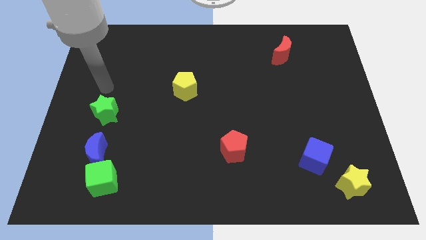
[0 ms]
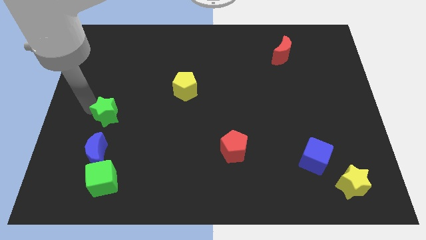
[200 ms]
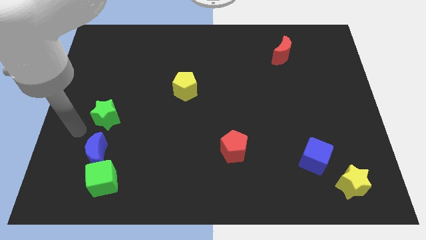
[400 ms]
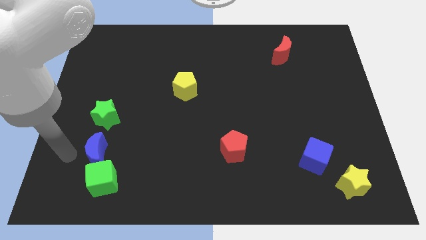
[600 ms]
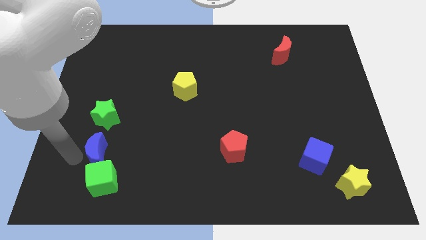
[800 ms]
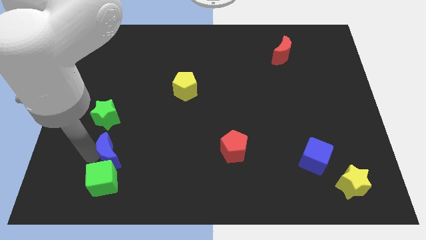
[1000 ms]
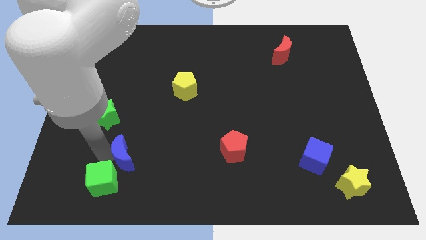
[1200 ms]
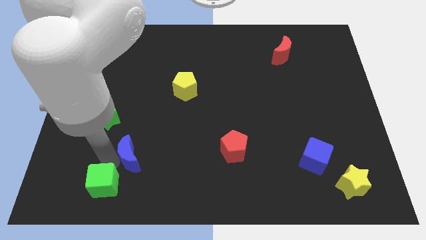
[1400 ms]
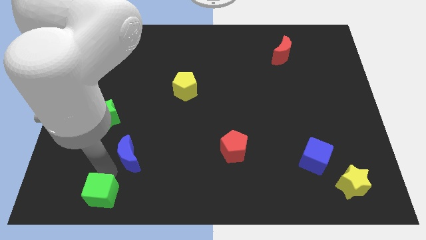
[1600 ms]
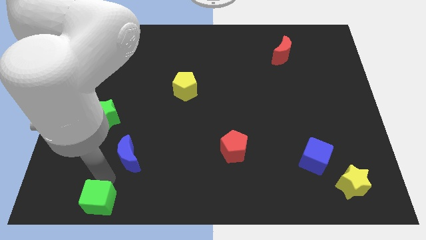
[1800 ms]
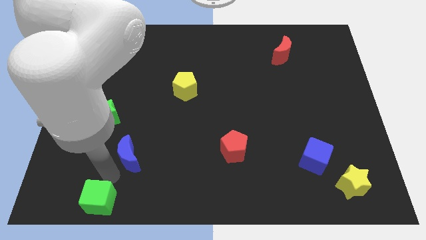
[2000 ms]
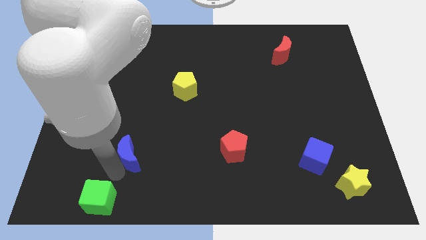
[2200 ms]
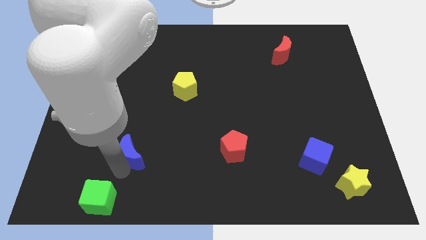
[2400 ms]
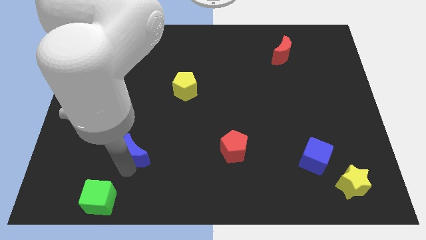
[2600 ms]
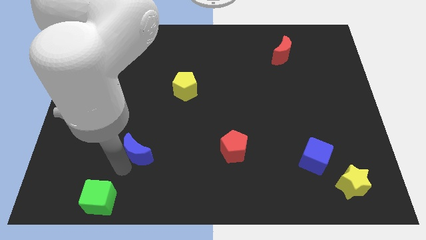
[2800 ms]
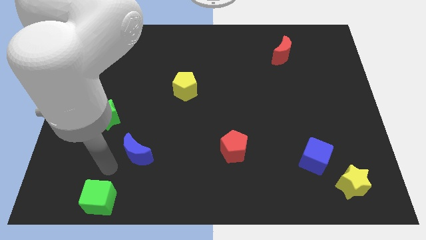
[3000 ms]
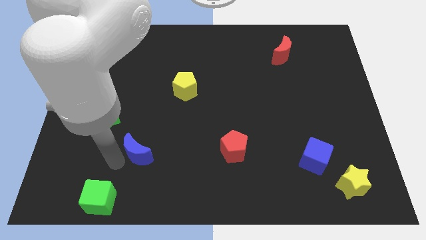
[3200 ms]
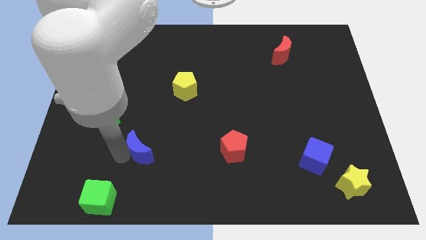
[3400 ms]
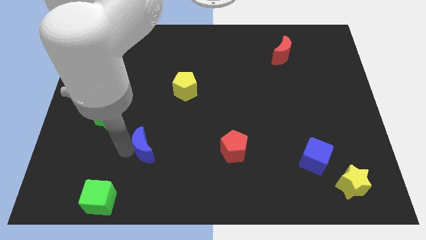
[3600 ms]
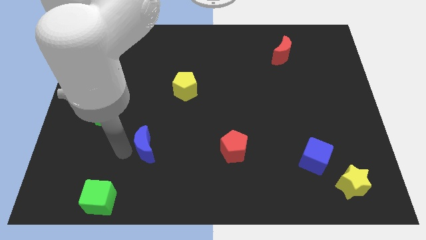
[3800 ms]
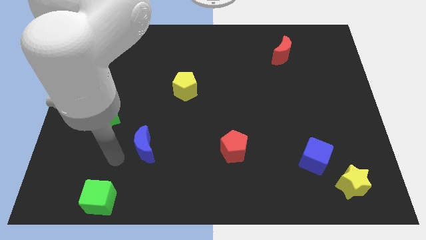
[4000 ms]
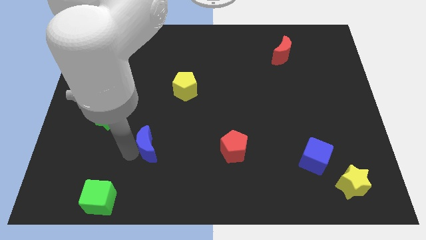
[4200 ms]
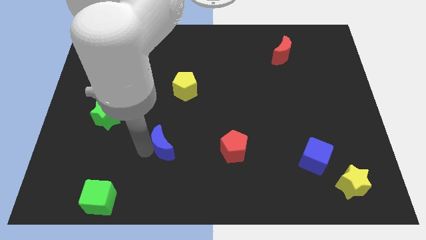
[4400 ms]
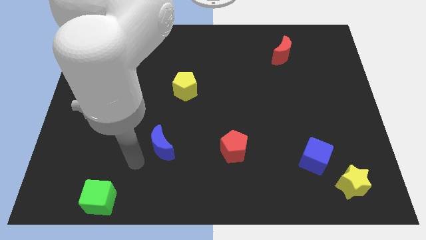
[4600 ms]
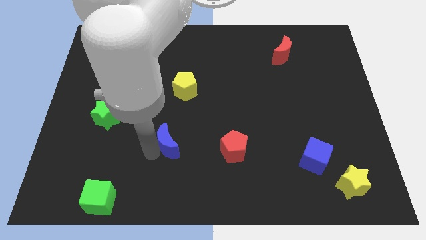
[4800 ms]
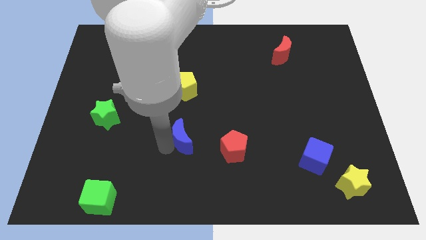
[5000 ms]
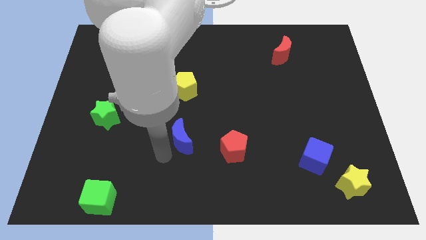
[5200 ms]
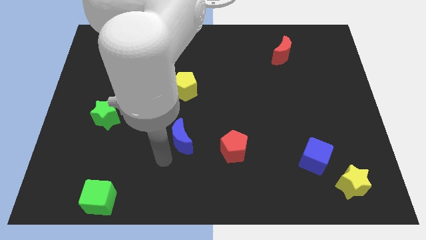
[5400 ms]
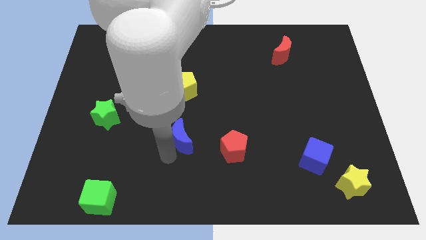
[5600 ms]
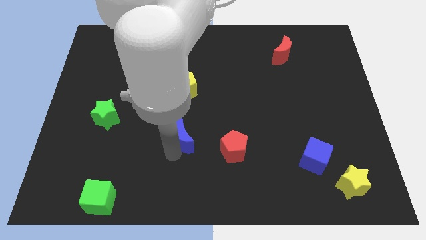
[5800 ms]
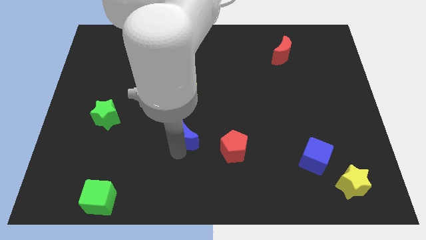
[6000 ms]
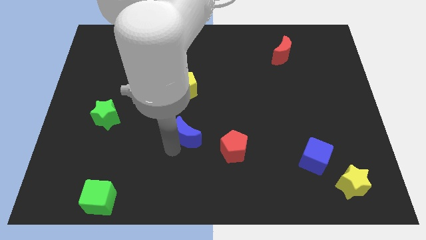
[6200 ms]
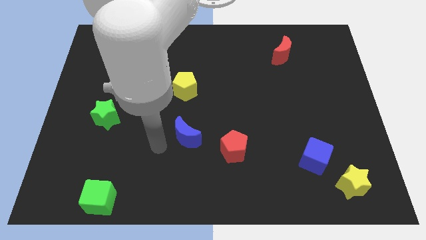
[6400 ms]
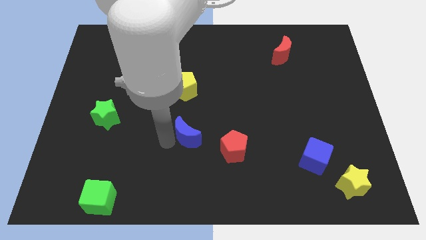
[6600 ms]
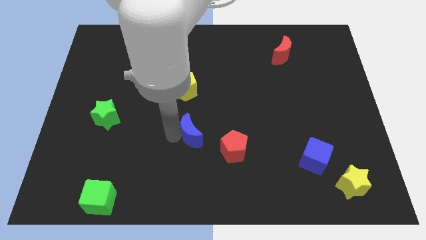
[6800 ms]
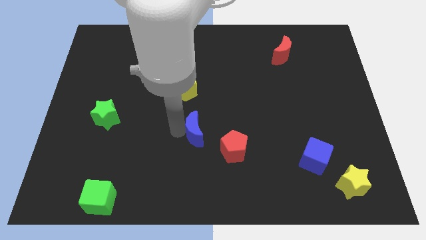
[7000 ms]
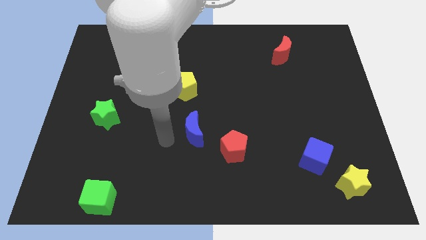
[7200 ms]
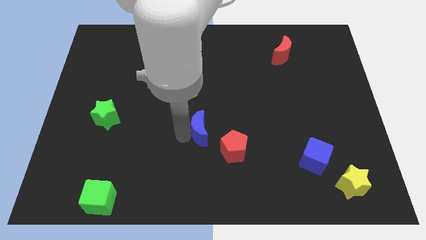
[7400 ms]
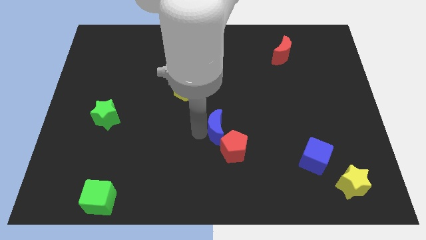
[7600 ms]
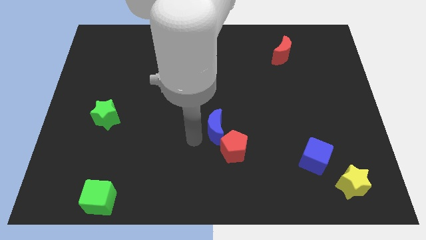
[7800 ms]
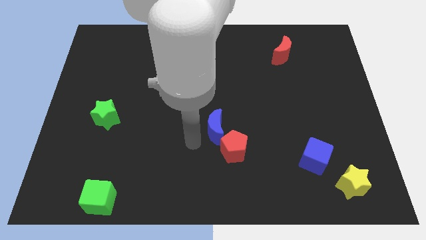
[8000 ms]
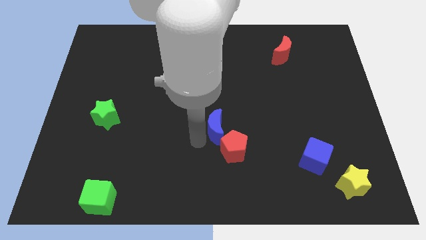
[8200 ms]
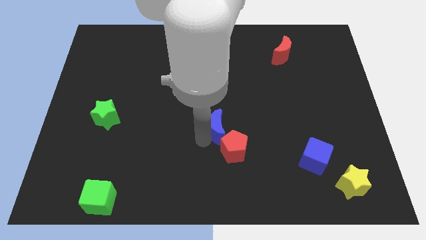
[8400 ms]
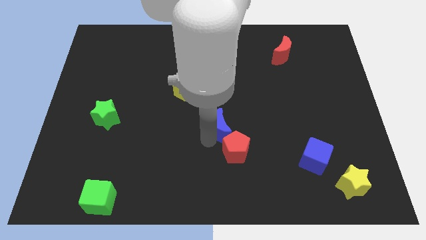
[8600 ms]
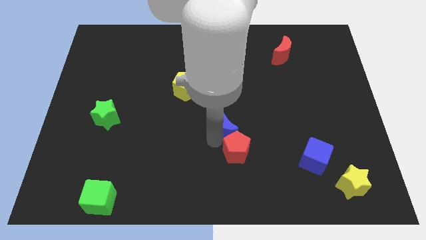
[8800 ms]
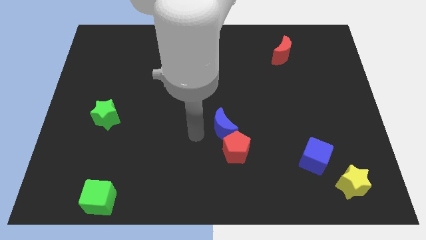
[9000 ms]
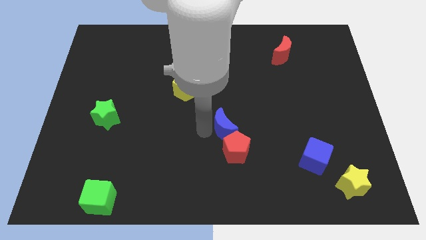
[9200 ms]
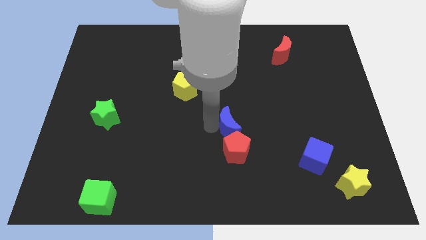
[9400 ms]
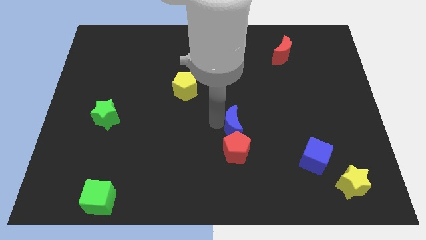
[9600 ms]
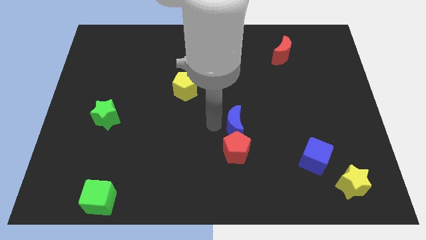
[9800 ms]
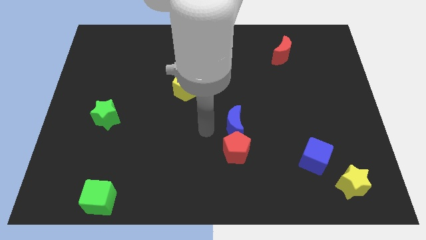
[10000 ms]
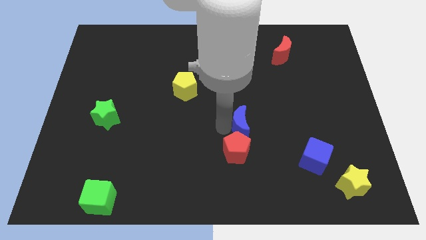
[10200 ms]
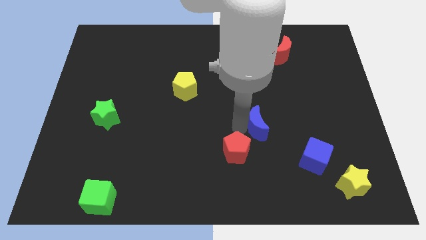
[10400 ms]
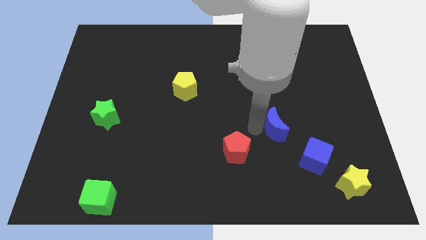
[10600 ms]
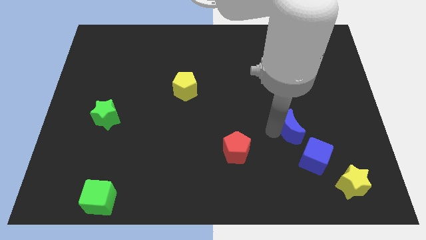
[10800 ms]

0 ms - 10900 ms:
slide the blue moon to the top side of the blue cube

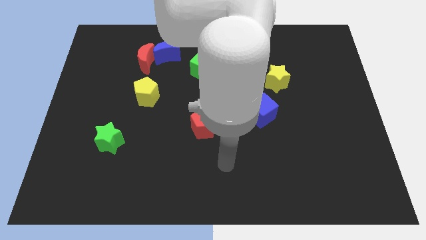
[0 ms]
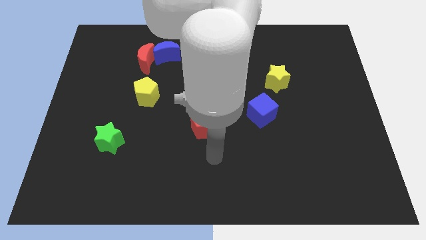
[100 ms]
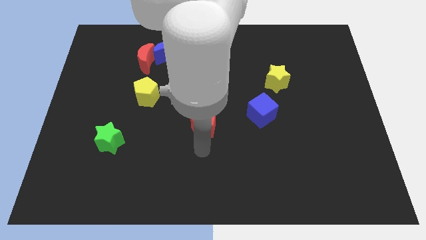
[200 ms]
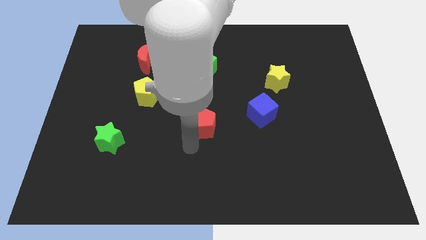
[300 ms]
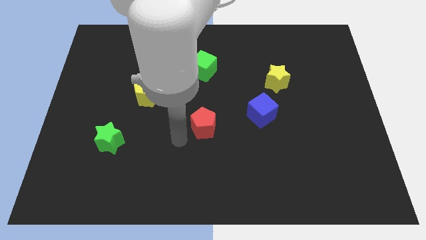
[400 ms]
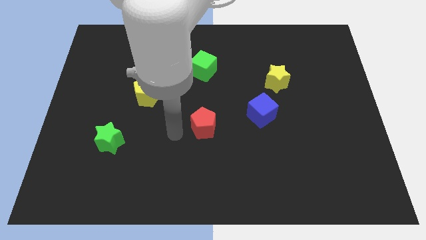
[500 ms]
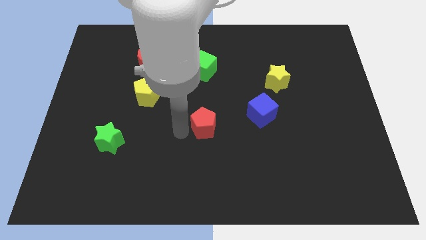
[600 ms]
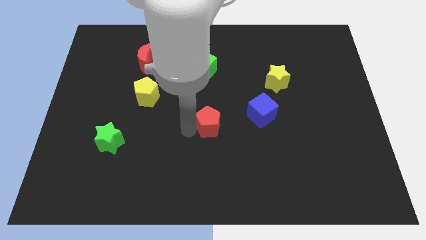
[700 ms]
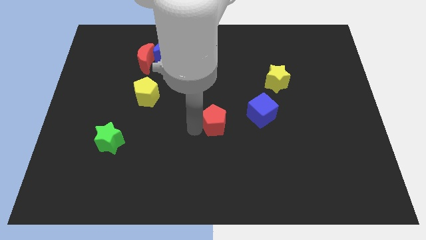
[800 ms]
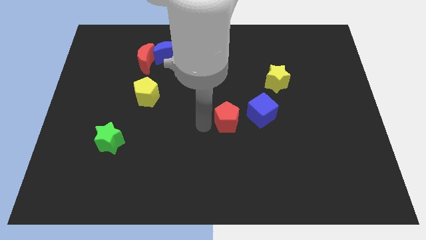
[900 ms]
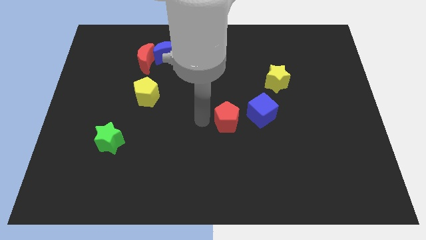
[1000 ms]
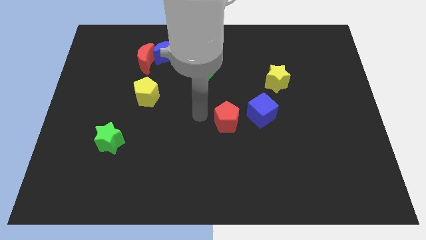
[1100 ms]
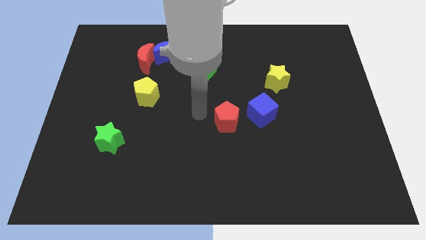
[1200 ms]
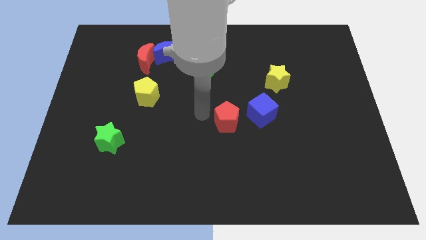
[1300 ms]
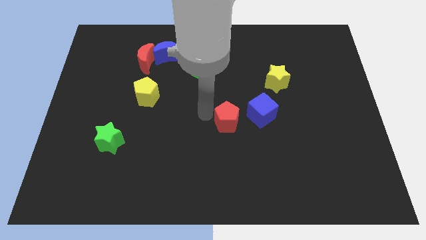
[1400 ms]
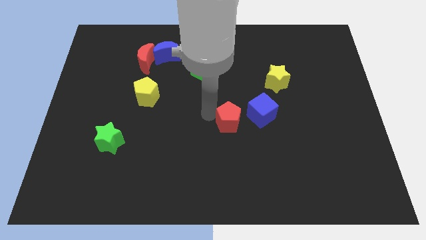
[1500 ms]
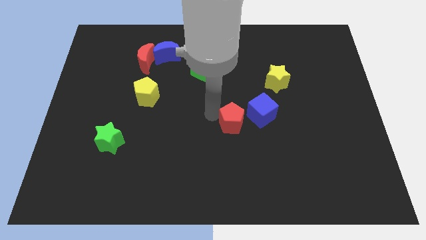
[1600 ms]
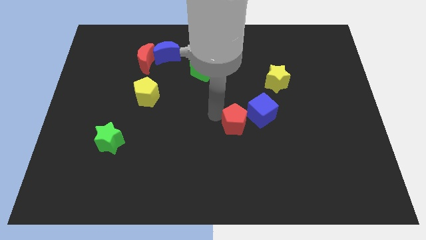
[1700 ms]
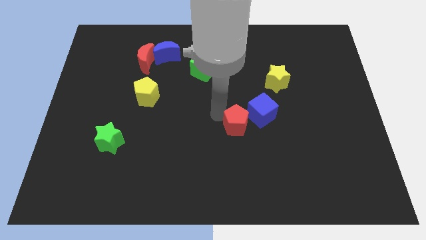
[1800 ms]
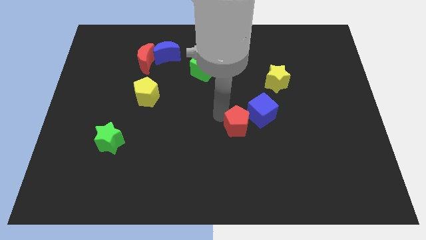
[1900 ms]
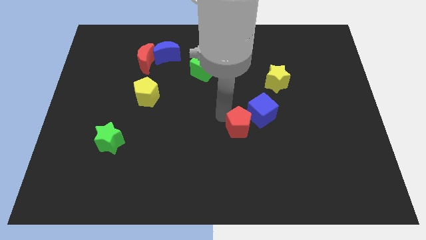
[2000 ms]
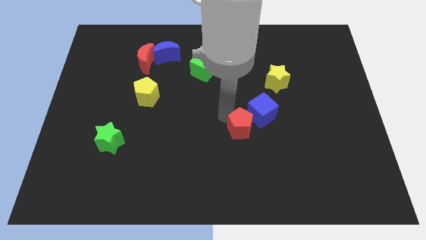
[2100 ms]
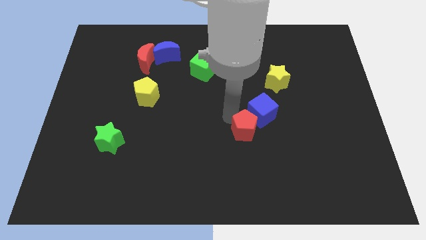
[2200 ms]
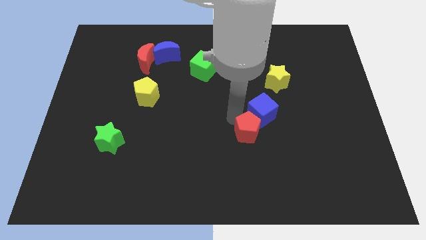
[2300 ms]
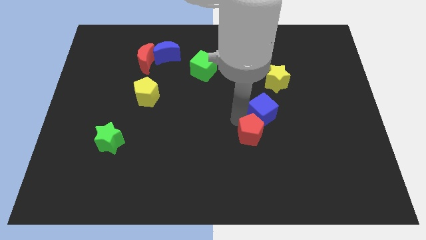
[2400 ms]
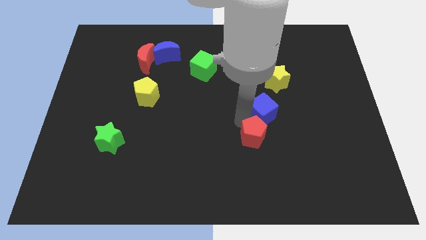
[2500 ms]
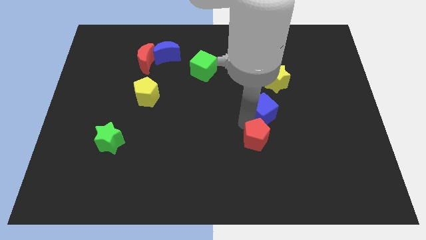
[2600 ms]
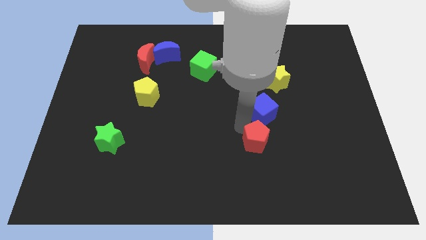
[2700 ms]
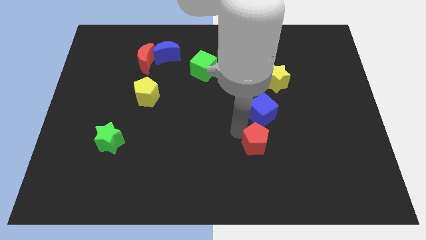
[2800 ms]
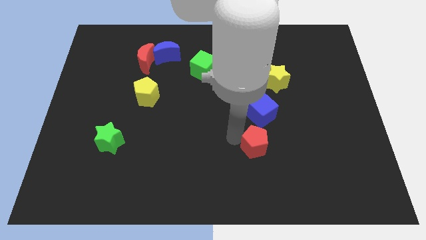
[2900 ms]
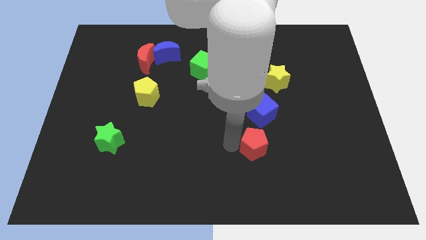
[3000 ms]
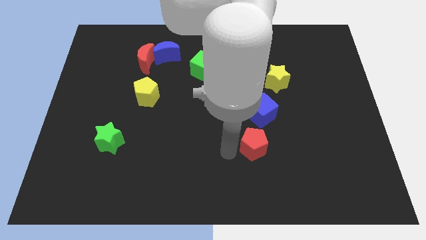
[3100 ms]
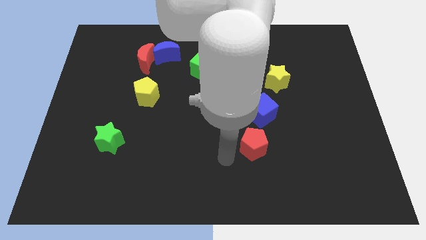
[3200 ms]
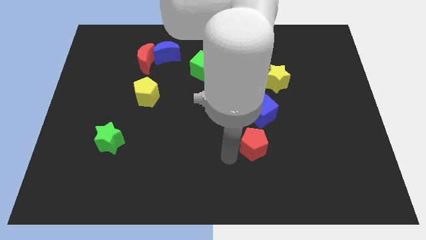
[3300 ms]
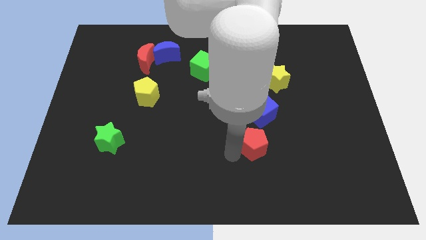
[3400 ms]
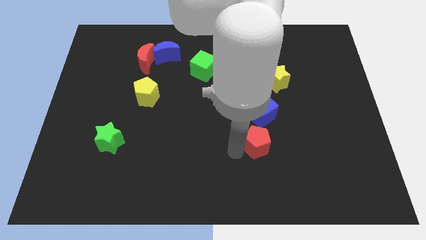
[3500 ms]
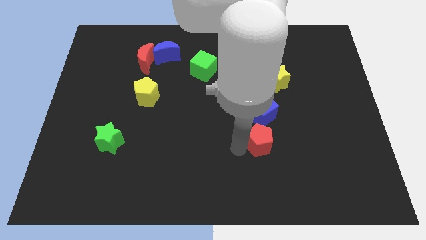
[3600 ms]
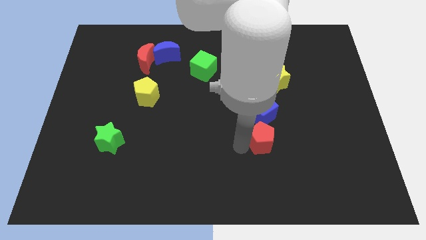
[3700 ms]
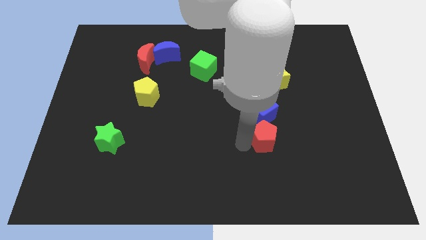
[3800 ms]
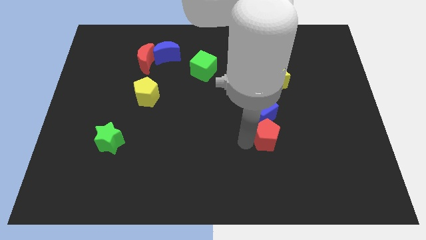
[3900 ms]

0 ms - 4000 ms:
put the red pentagon to the bottom right of the blue cube
